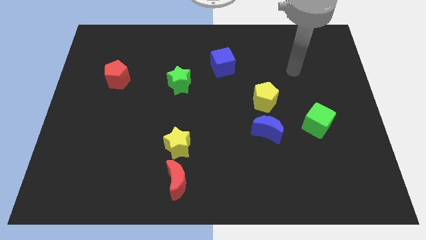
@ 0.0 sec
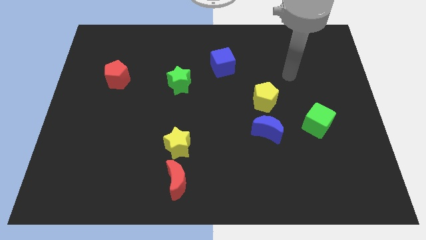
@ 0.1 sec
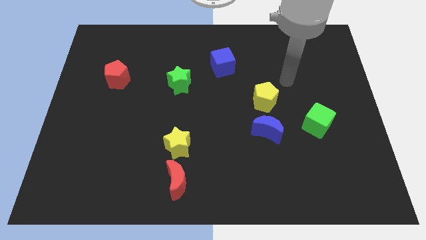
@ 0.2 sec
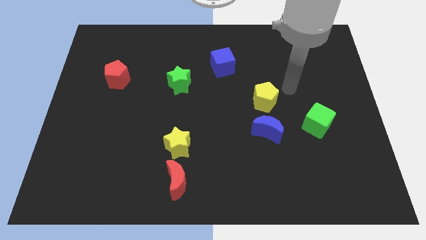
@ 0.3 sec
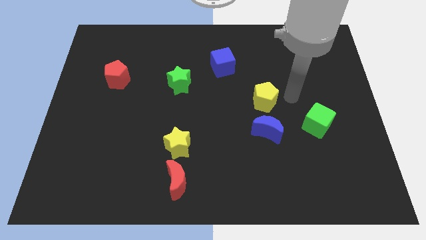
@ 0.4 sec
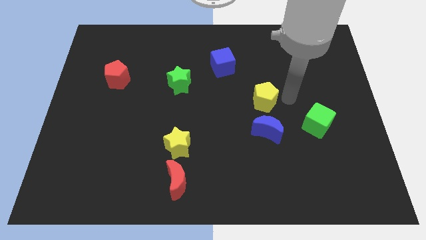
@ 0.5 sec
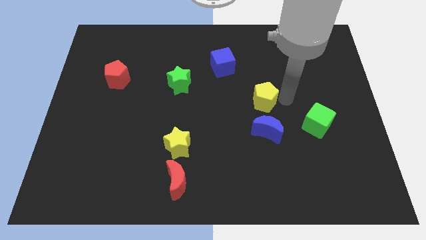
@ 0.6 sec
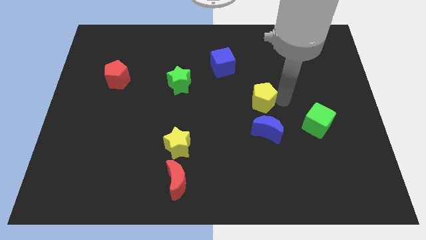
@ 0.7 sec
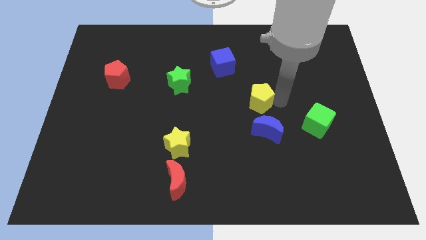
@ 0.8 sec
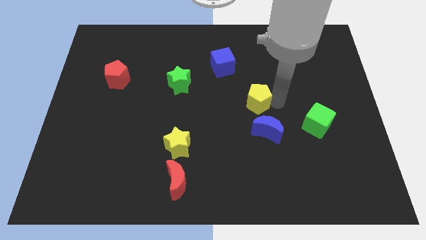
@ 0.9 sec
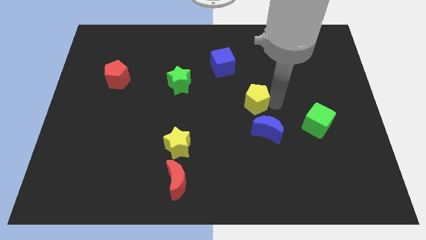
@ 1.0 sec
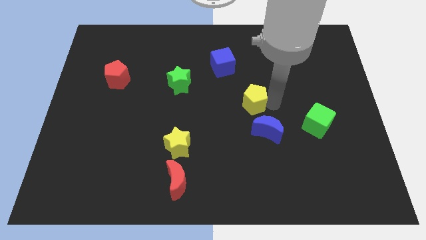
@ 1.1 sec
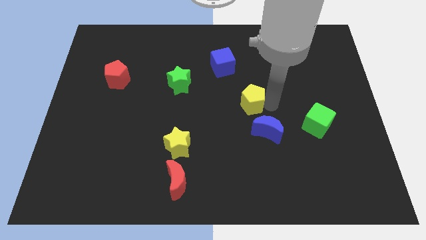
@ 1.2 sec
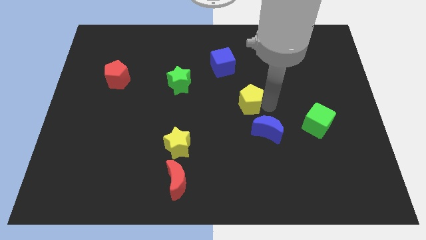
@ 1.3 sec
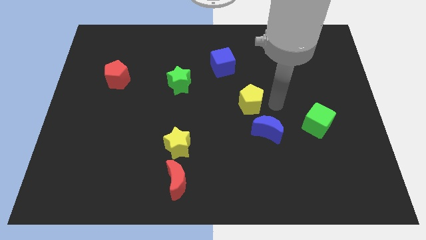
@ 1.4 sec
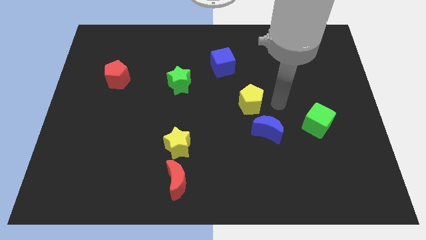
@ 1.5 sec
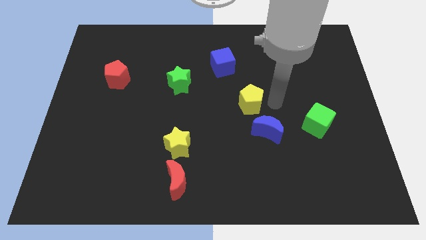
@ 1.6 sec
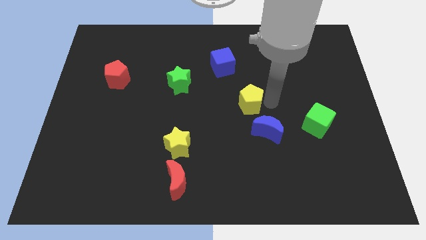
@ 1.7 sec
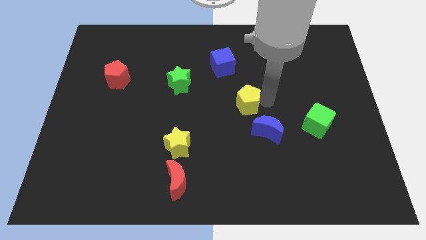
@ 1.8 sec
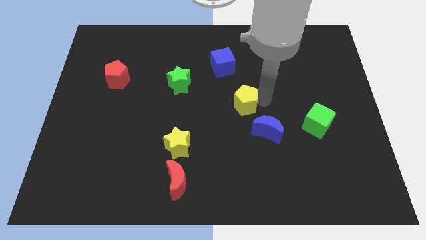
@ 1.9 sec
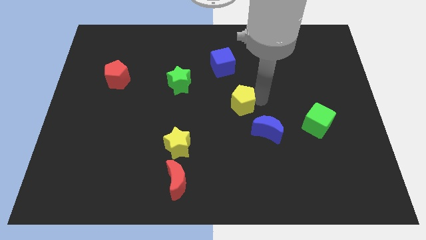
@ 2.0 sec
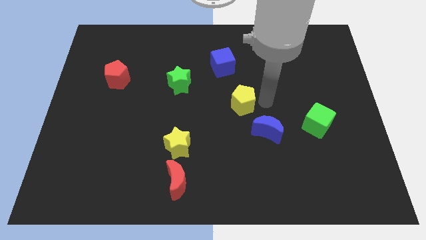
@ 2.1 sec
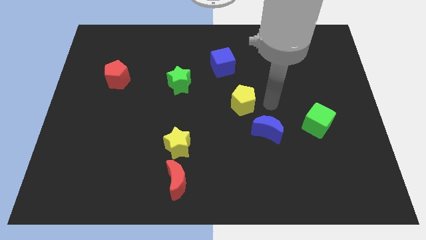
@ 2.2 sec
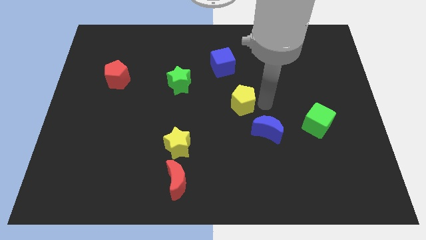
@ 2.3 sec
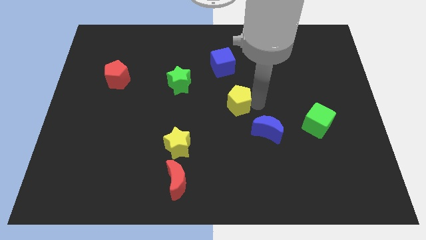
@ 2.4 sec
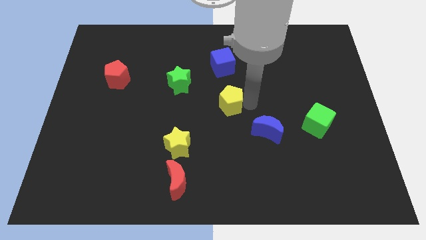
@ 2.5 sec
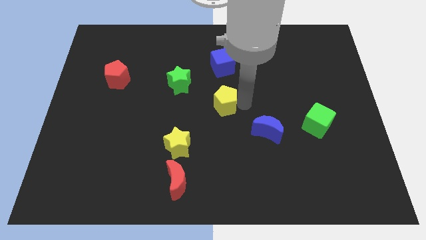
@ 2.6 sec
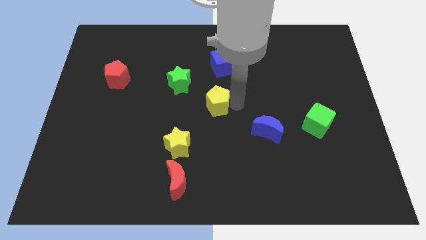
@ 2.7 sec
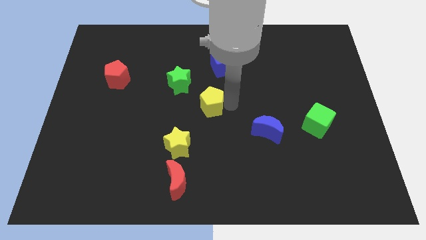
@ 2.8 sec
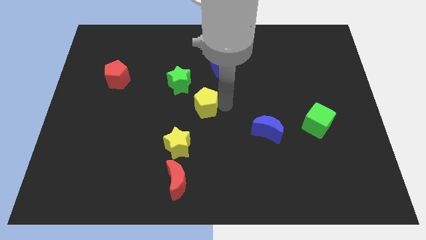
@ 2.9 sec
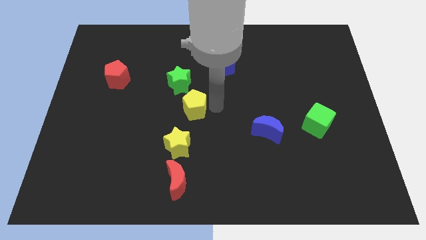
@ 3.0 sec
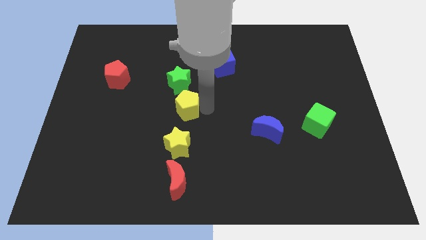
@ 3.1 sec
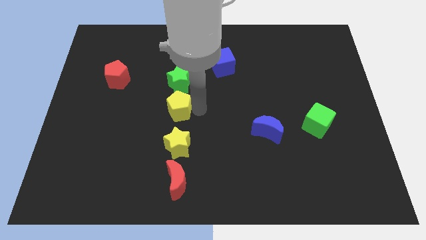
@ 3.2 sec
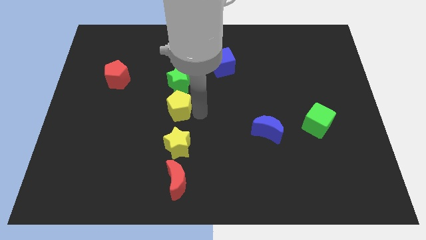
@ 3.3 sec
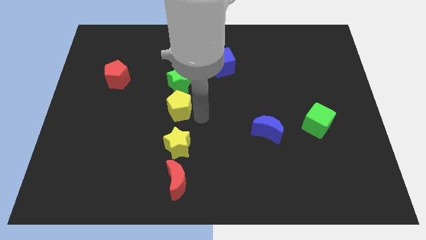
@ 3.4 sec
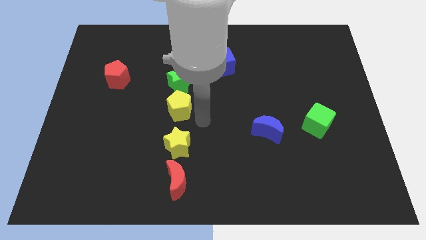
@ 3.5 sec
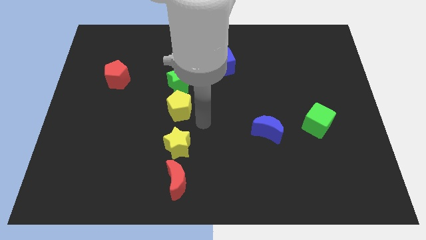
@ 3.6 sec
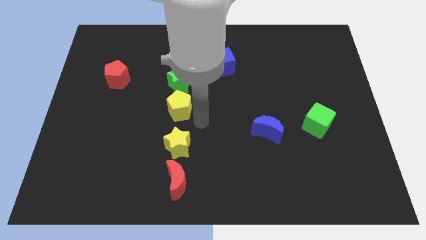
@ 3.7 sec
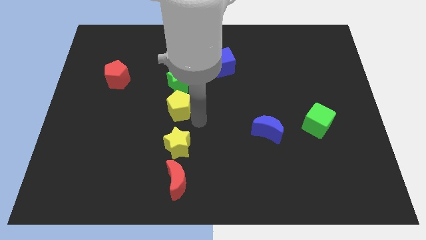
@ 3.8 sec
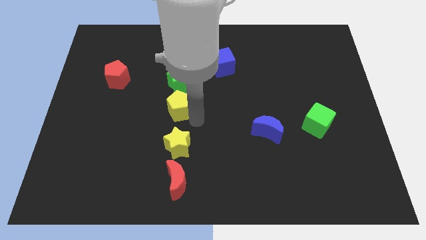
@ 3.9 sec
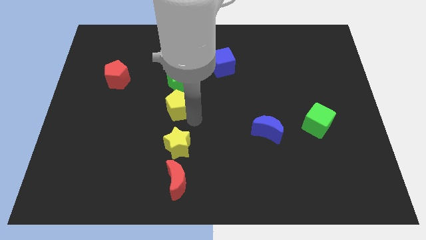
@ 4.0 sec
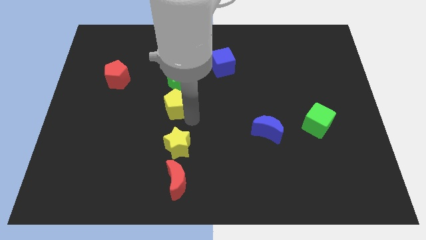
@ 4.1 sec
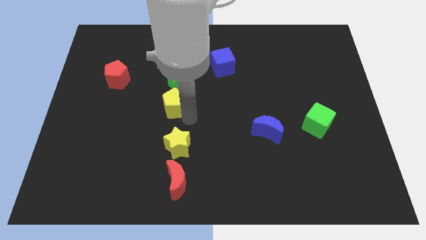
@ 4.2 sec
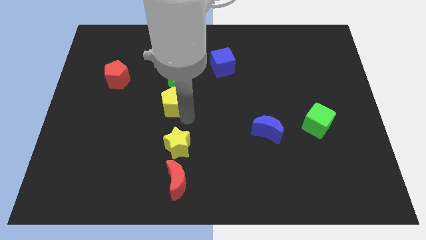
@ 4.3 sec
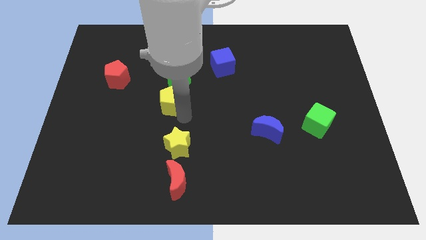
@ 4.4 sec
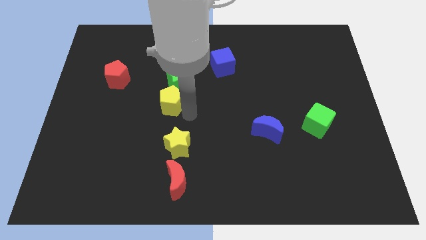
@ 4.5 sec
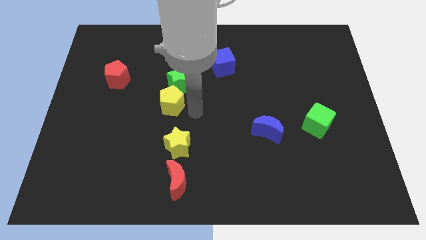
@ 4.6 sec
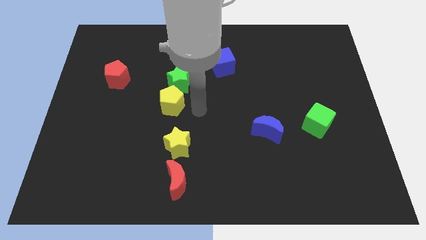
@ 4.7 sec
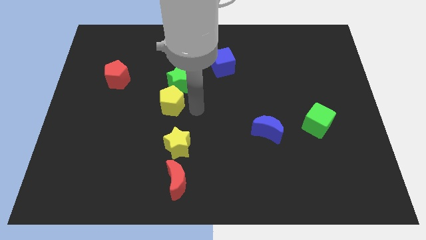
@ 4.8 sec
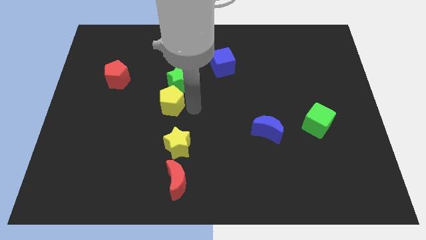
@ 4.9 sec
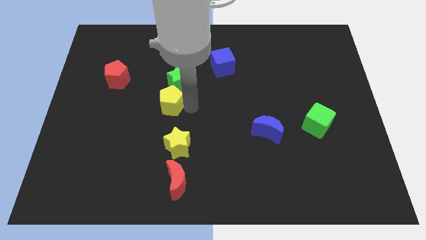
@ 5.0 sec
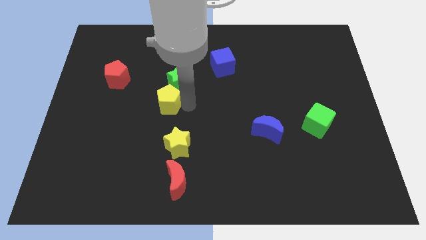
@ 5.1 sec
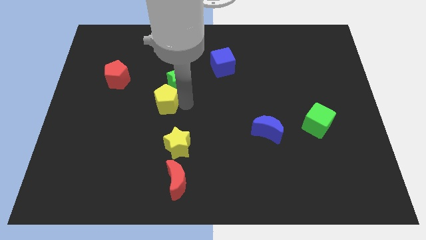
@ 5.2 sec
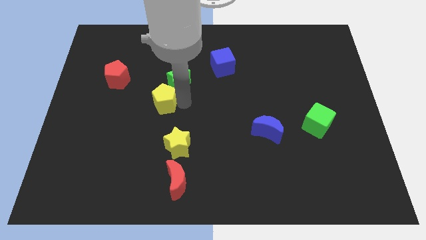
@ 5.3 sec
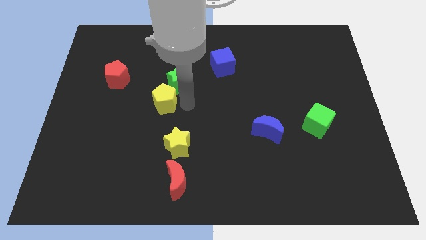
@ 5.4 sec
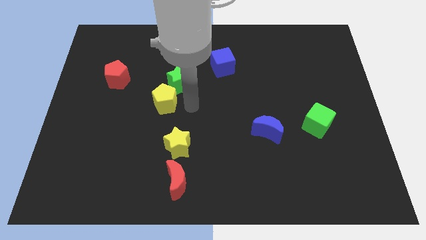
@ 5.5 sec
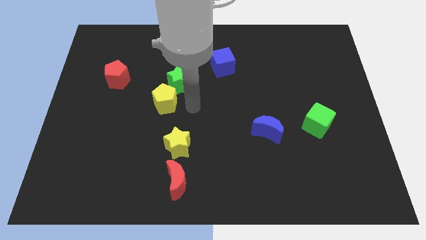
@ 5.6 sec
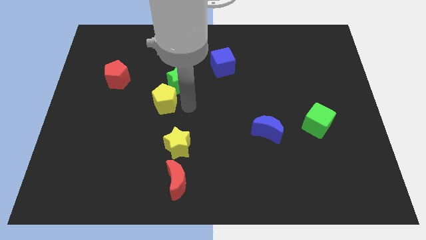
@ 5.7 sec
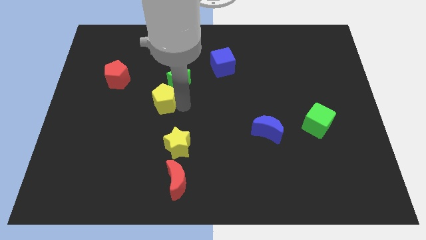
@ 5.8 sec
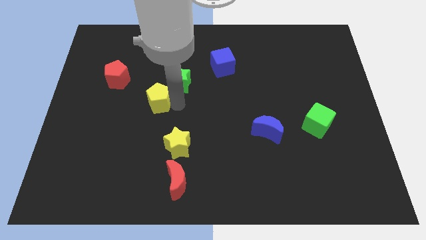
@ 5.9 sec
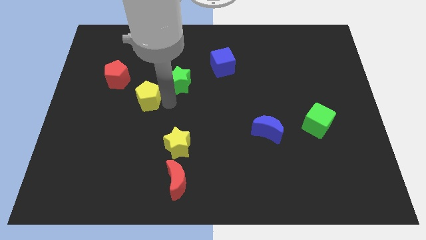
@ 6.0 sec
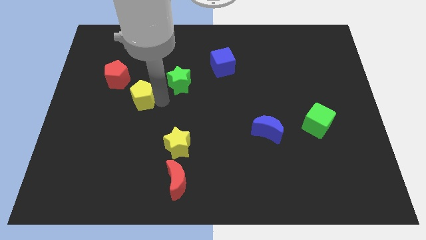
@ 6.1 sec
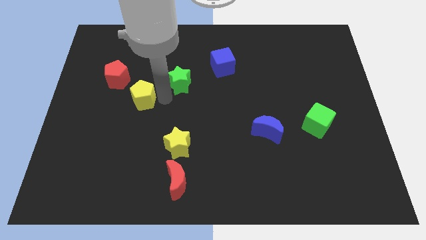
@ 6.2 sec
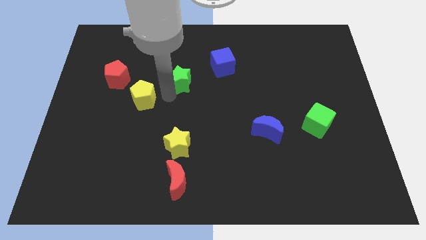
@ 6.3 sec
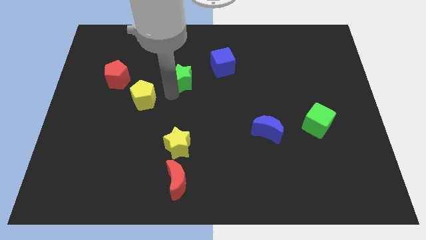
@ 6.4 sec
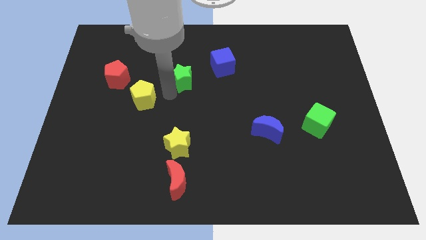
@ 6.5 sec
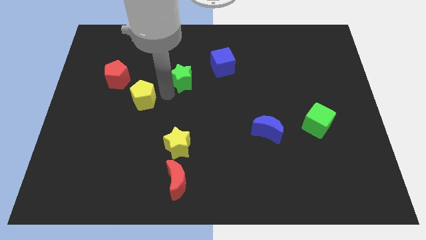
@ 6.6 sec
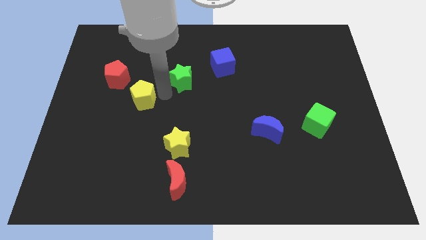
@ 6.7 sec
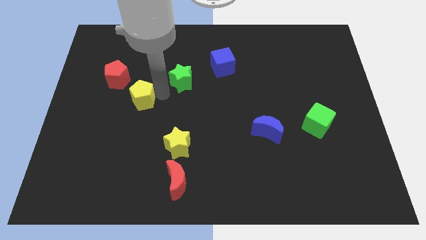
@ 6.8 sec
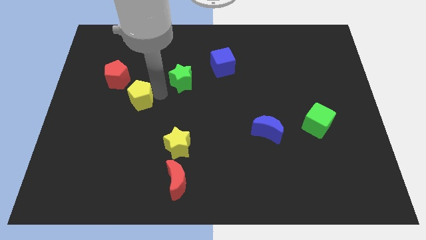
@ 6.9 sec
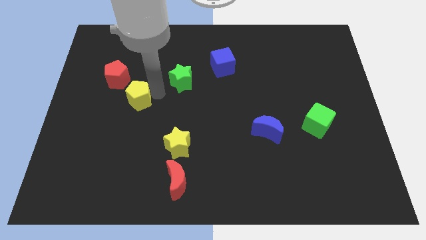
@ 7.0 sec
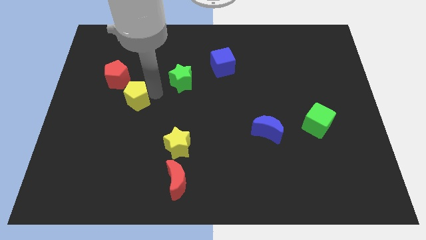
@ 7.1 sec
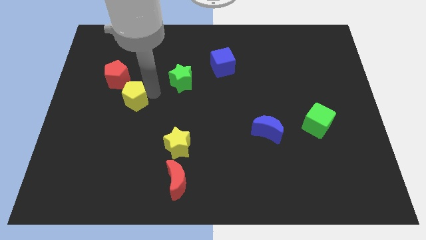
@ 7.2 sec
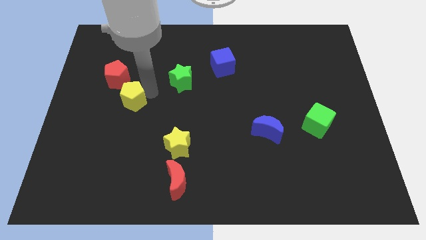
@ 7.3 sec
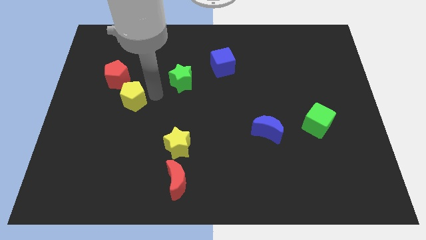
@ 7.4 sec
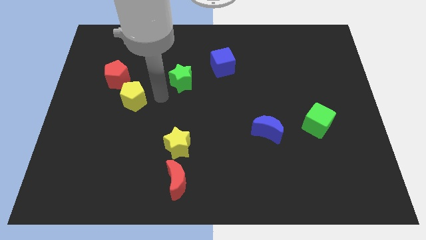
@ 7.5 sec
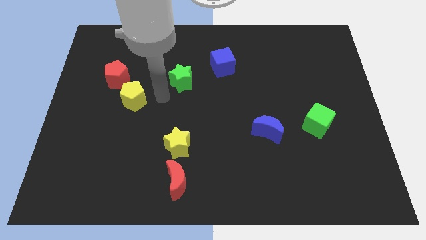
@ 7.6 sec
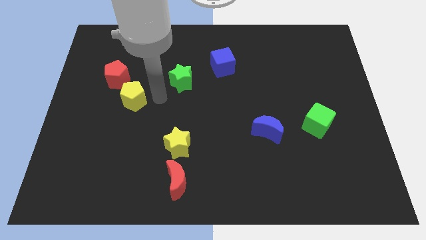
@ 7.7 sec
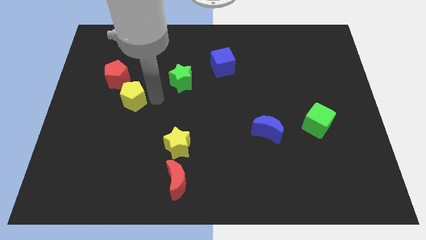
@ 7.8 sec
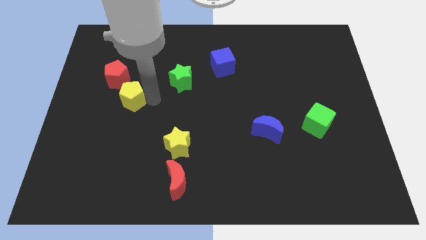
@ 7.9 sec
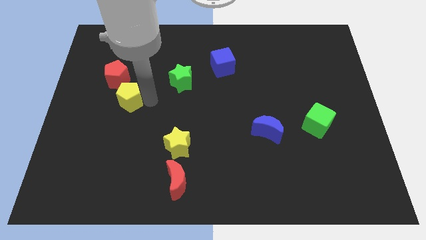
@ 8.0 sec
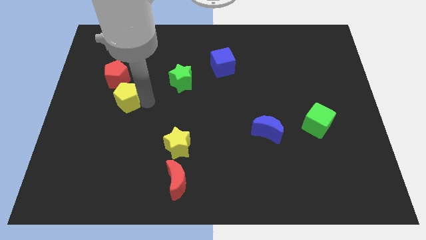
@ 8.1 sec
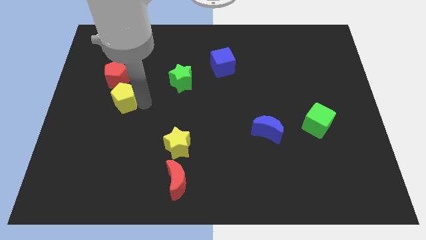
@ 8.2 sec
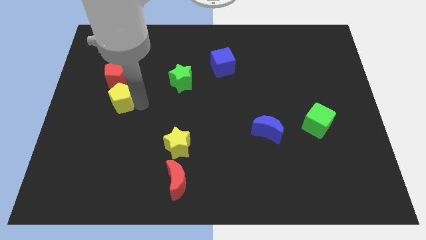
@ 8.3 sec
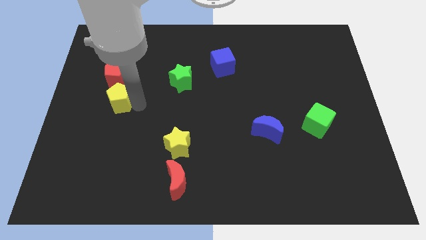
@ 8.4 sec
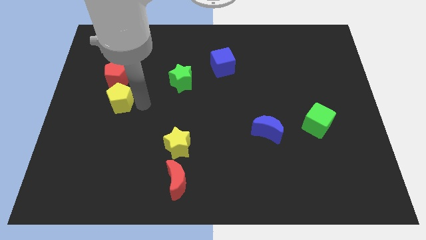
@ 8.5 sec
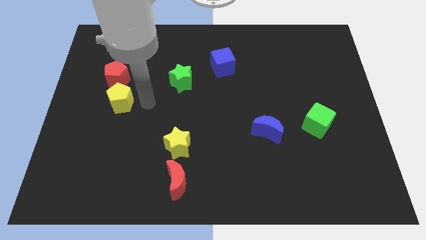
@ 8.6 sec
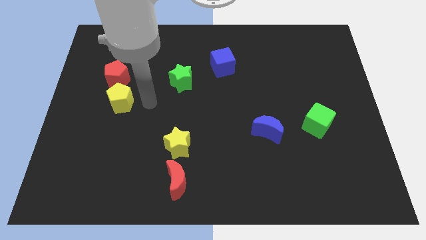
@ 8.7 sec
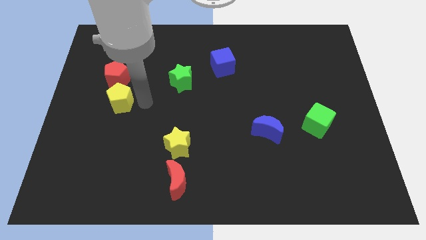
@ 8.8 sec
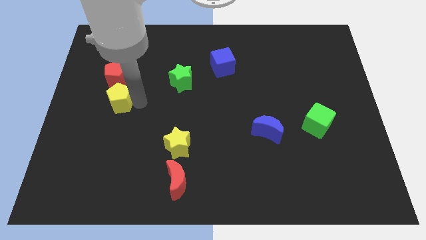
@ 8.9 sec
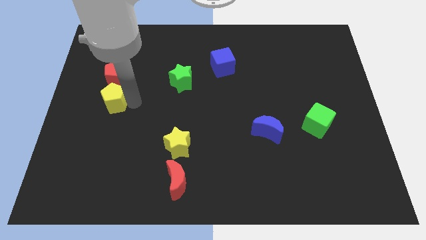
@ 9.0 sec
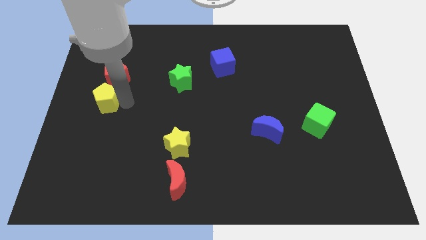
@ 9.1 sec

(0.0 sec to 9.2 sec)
push the yellow pentagon to the center left
